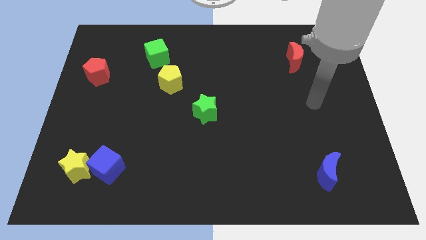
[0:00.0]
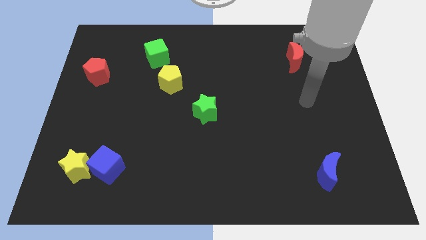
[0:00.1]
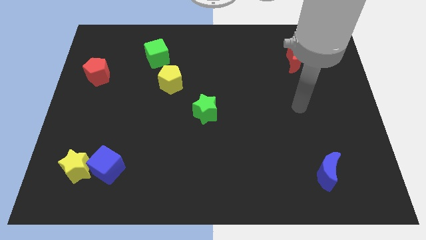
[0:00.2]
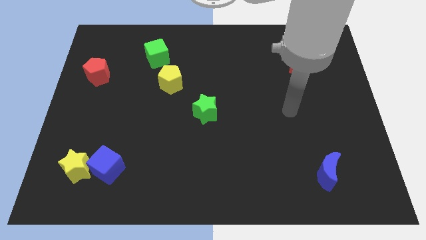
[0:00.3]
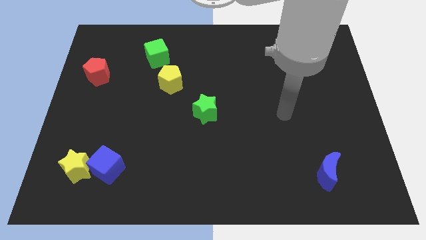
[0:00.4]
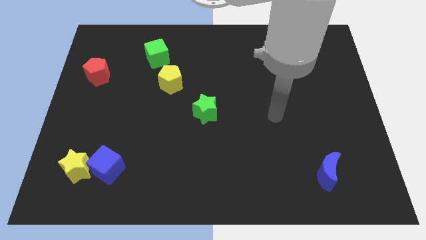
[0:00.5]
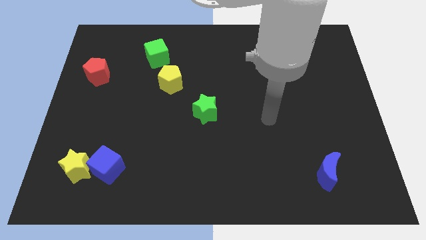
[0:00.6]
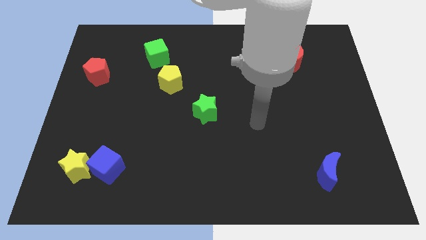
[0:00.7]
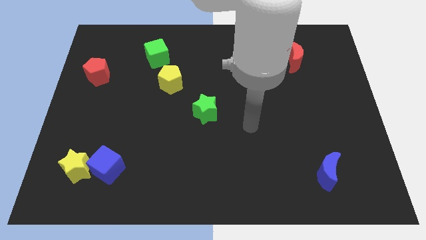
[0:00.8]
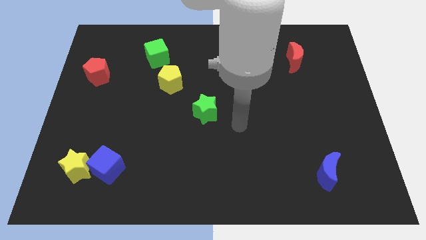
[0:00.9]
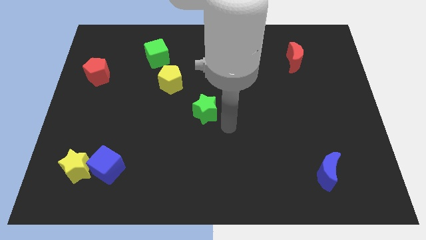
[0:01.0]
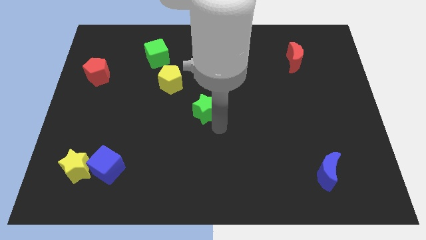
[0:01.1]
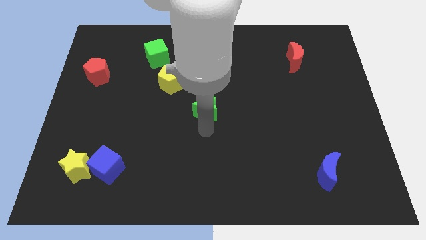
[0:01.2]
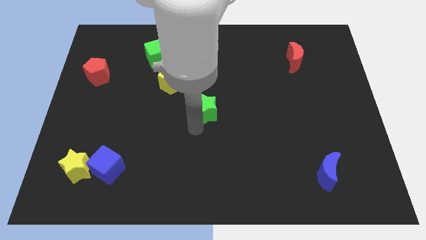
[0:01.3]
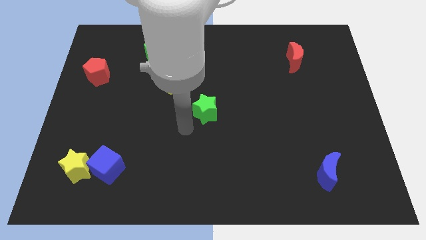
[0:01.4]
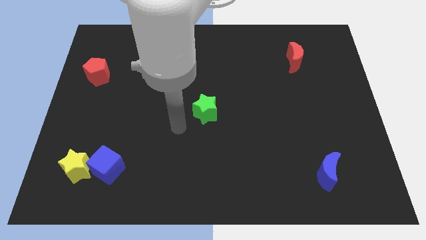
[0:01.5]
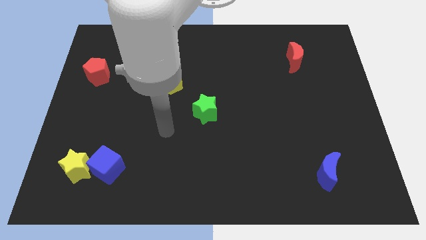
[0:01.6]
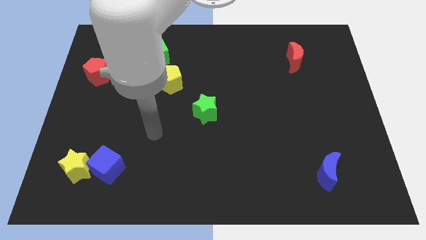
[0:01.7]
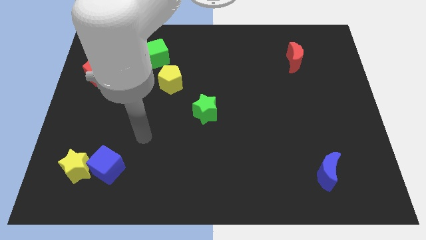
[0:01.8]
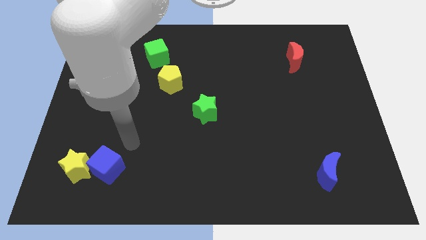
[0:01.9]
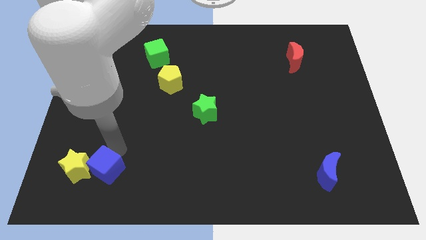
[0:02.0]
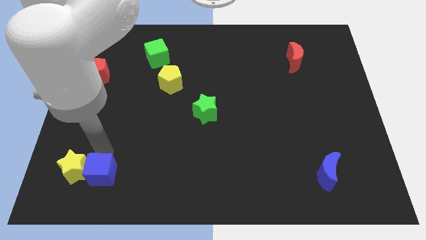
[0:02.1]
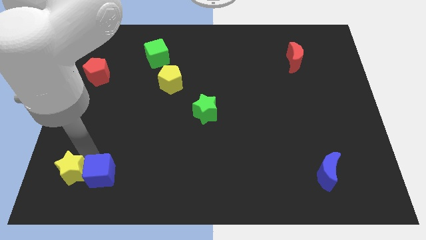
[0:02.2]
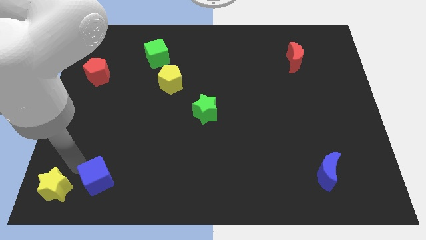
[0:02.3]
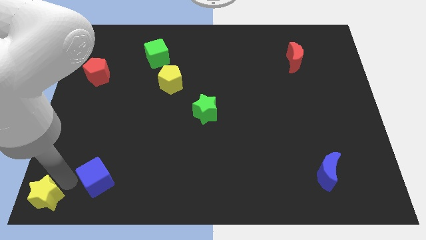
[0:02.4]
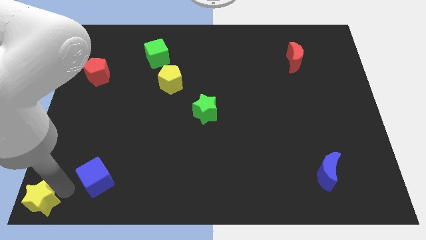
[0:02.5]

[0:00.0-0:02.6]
separate the blue cube from the yellow star

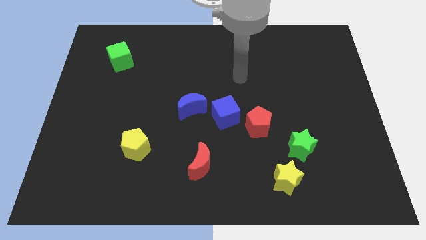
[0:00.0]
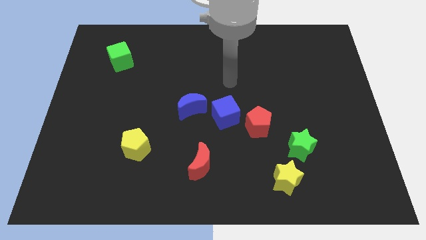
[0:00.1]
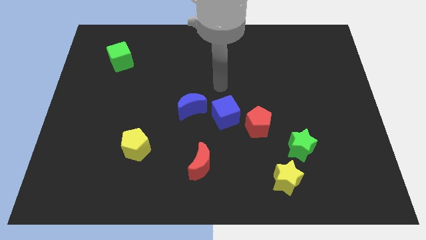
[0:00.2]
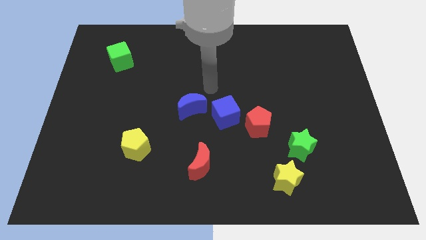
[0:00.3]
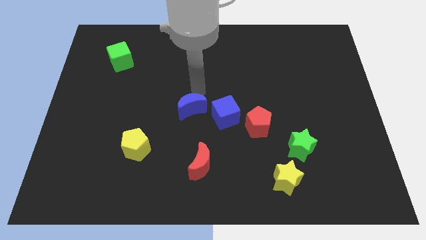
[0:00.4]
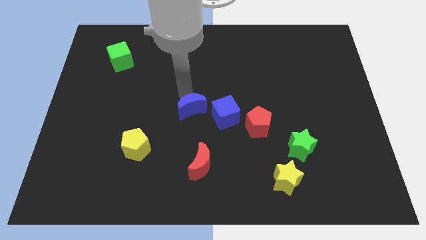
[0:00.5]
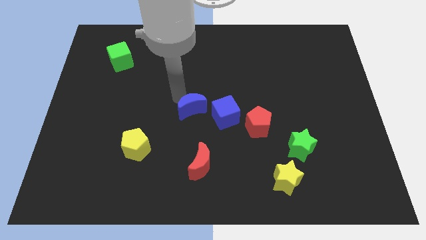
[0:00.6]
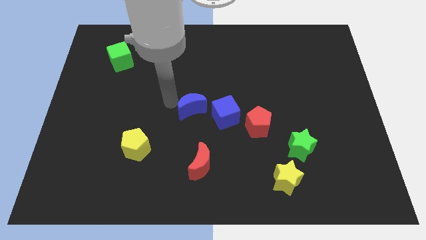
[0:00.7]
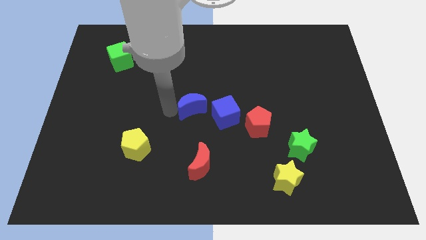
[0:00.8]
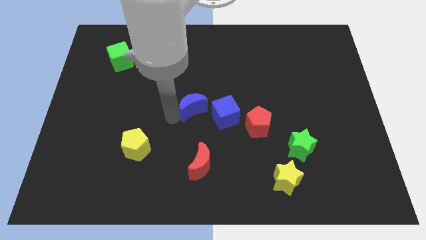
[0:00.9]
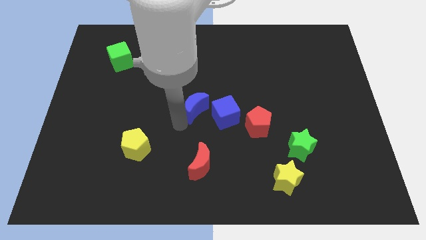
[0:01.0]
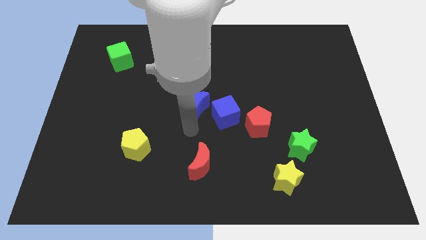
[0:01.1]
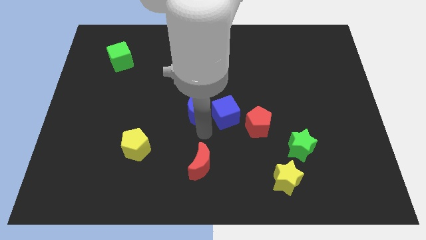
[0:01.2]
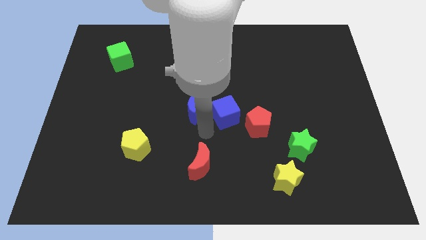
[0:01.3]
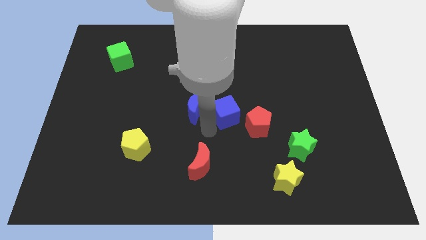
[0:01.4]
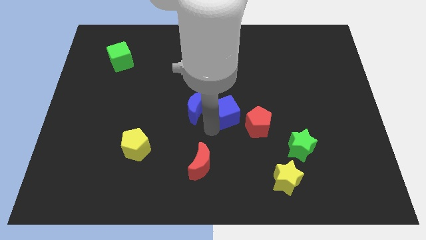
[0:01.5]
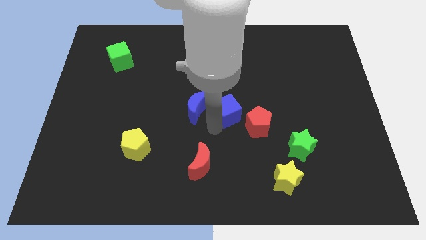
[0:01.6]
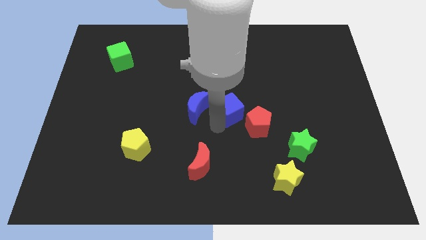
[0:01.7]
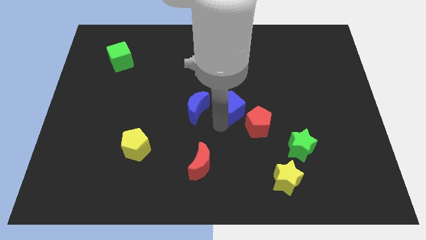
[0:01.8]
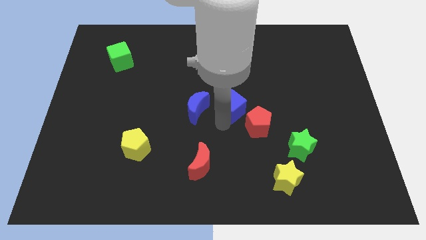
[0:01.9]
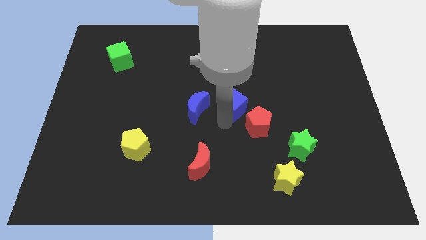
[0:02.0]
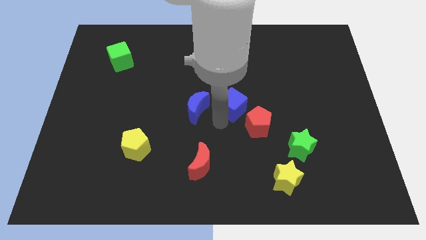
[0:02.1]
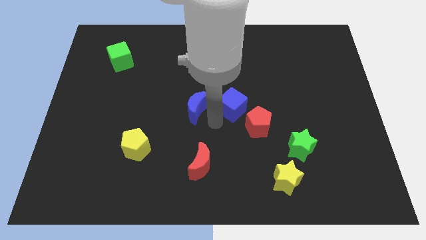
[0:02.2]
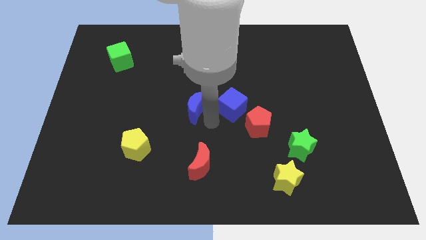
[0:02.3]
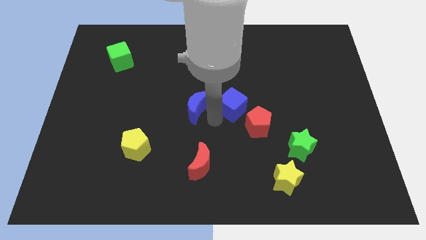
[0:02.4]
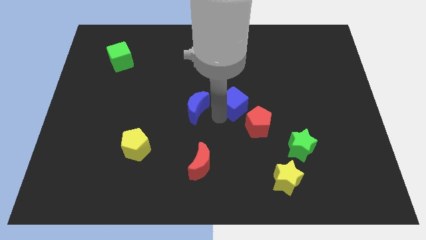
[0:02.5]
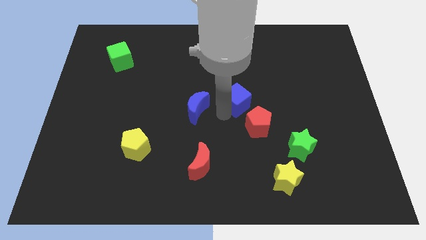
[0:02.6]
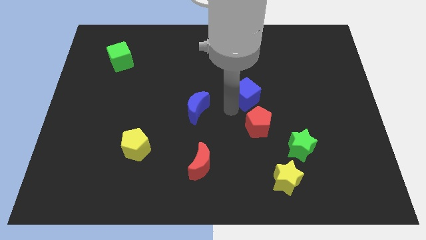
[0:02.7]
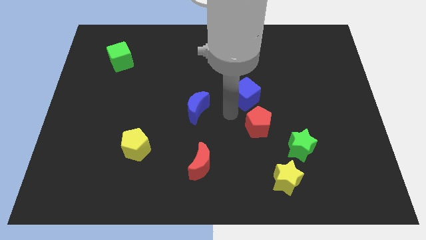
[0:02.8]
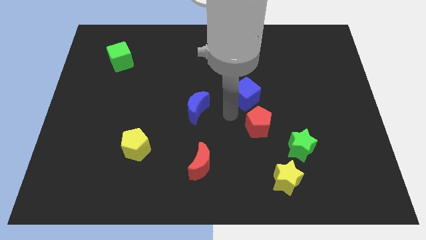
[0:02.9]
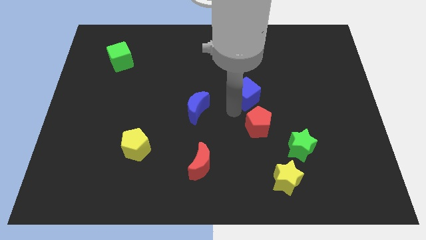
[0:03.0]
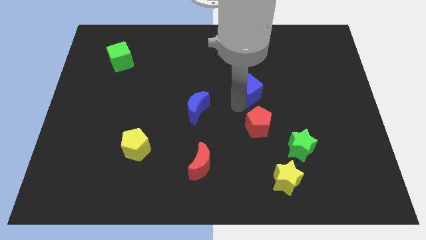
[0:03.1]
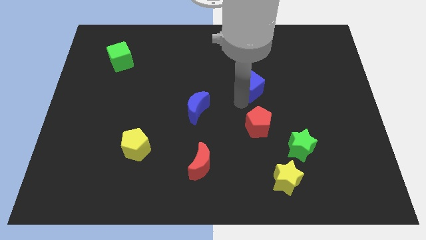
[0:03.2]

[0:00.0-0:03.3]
pull the blue cube apart from the red pentagon and blue moon

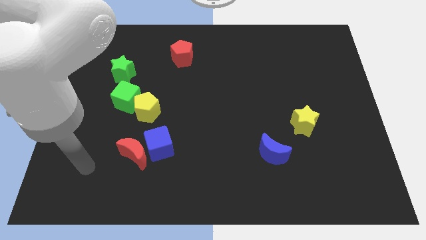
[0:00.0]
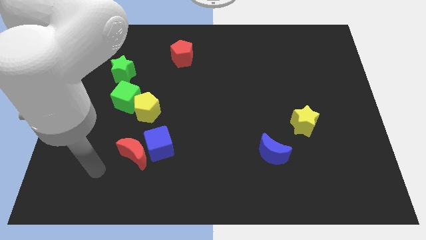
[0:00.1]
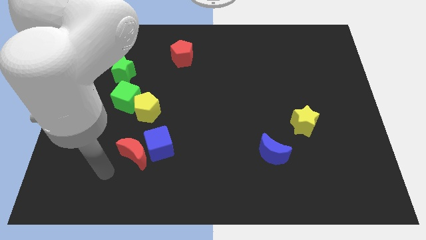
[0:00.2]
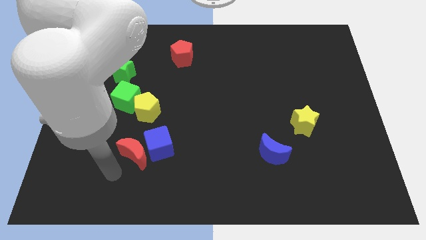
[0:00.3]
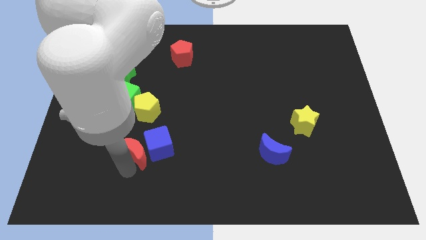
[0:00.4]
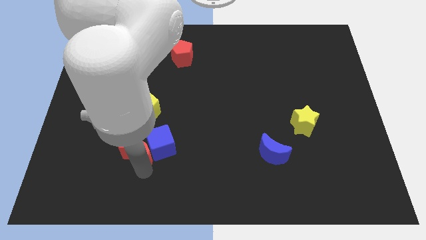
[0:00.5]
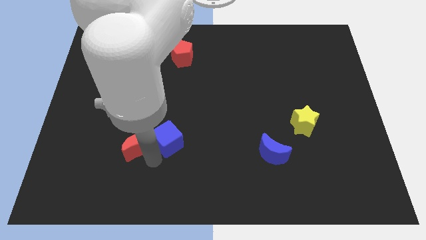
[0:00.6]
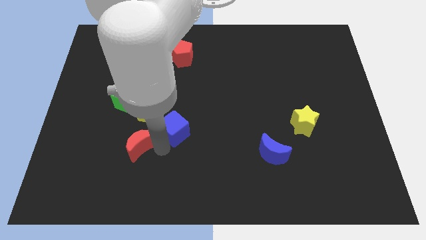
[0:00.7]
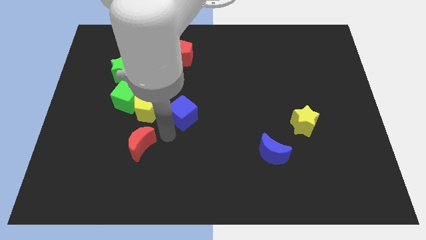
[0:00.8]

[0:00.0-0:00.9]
pull the red moon apart from the blue cube

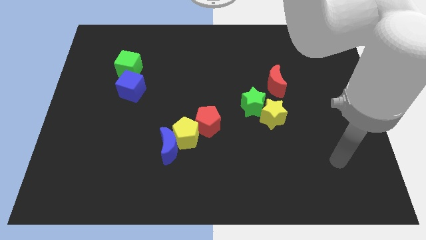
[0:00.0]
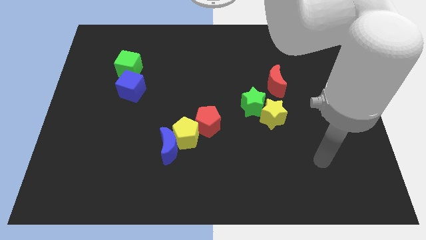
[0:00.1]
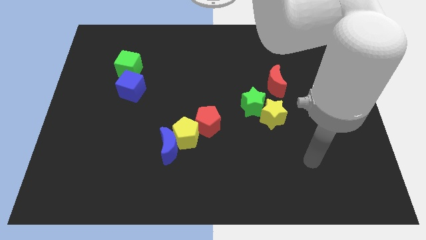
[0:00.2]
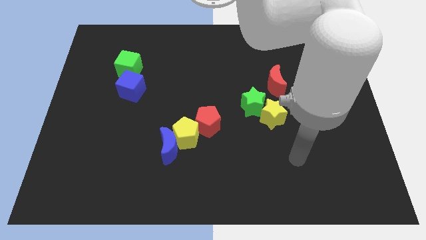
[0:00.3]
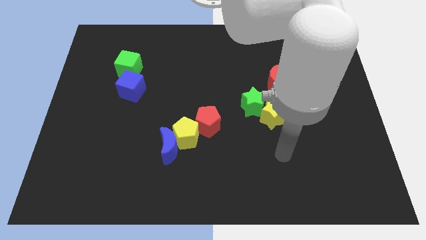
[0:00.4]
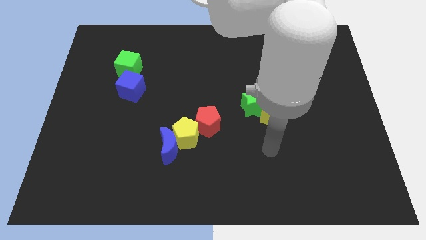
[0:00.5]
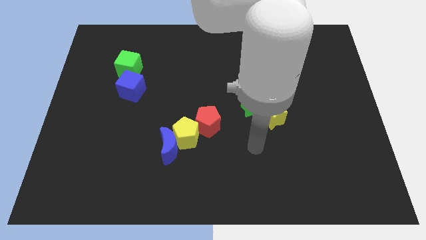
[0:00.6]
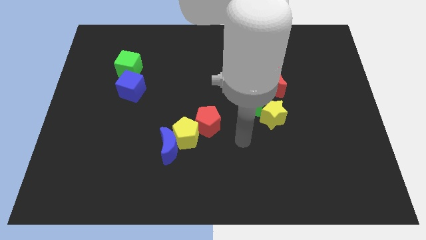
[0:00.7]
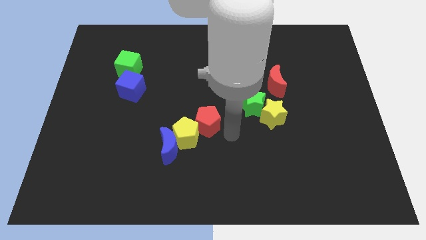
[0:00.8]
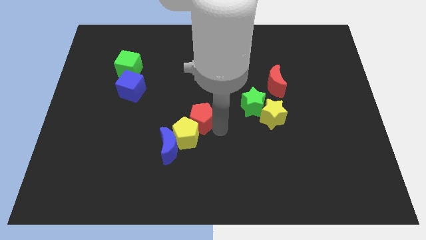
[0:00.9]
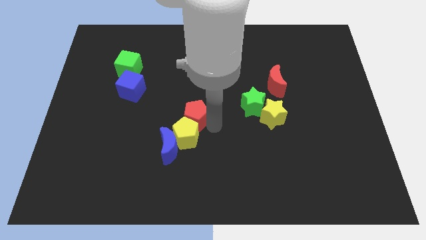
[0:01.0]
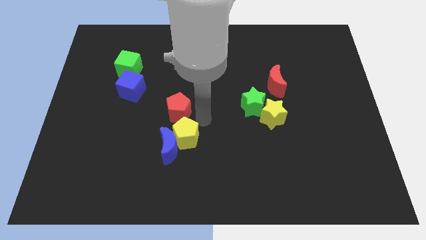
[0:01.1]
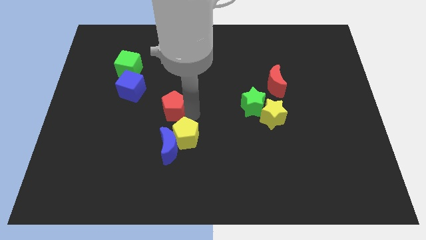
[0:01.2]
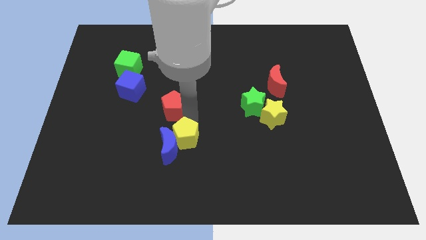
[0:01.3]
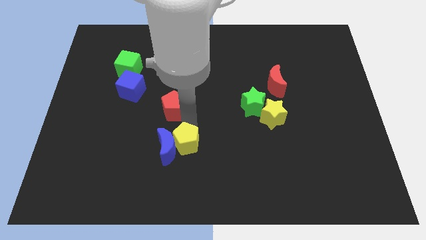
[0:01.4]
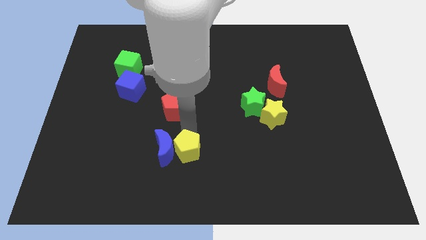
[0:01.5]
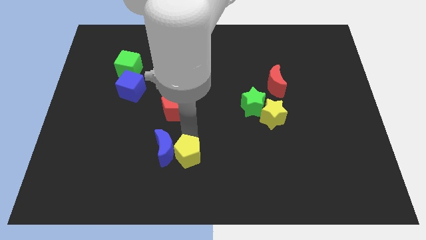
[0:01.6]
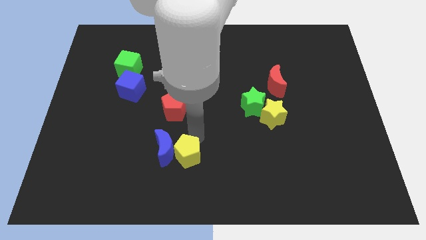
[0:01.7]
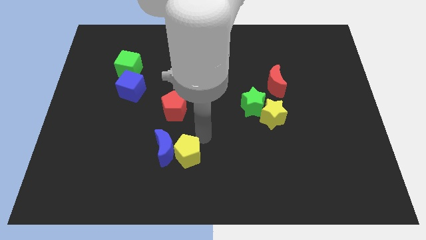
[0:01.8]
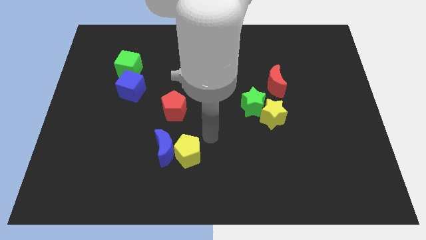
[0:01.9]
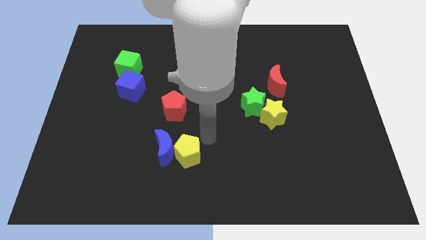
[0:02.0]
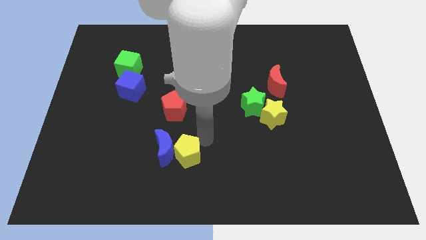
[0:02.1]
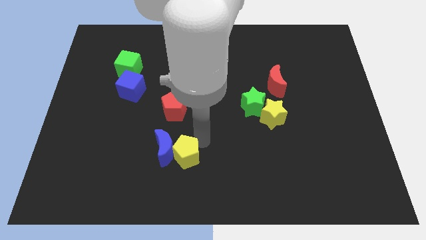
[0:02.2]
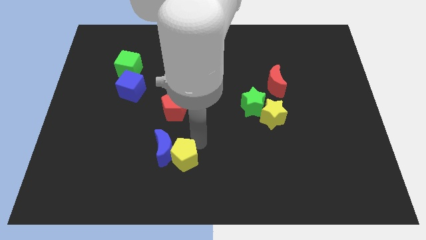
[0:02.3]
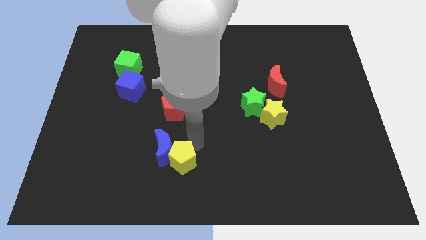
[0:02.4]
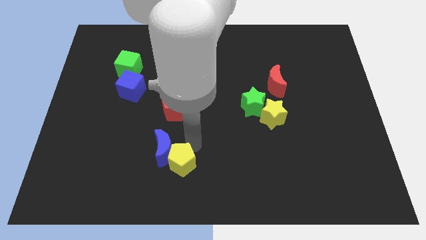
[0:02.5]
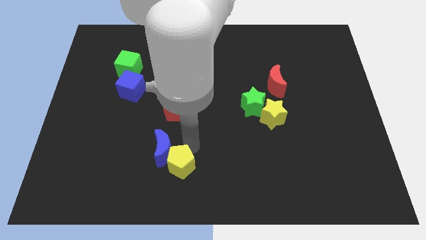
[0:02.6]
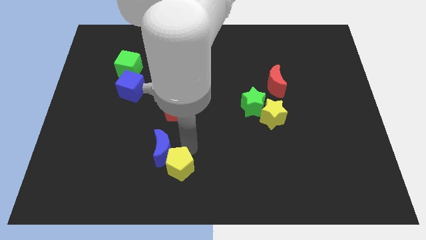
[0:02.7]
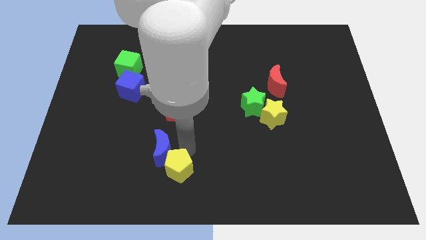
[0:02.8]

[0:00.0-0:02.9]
pull the yellow pentagon apart from the blue moon and red pentagon
